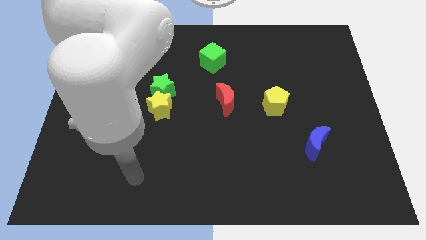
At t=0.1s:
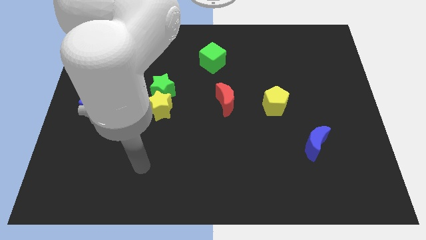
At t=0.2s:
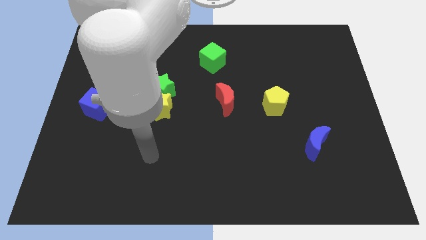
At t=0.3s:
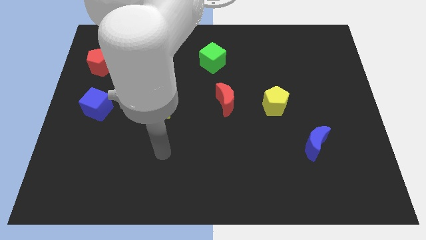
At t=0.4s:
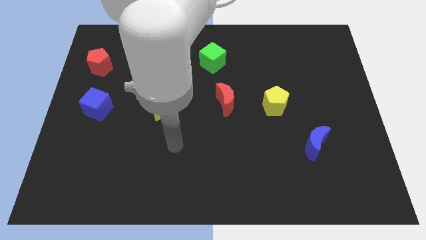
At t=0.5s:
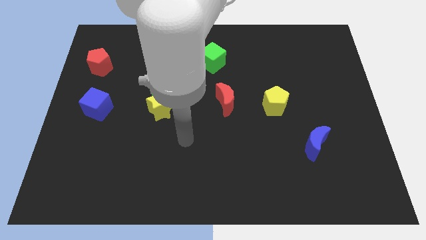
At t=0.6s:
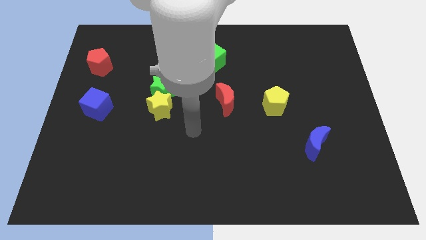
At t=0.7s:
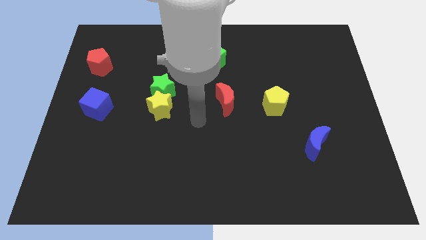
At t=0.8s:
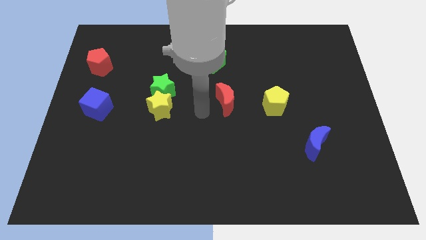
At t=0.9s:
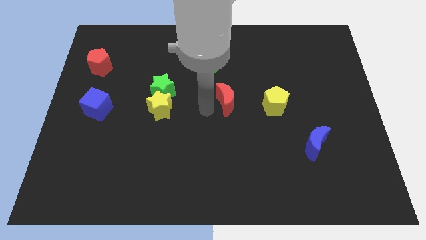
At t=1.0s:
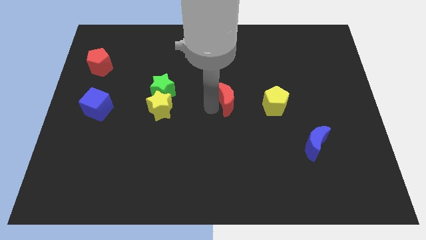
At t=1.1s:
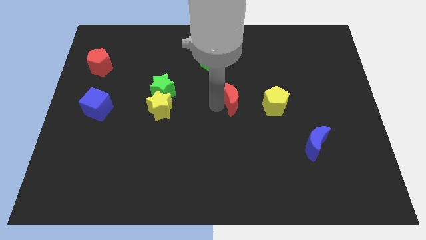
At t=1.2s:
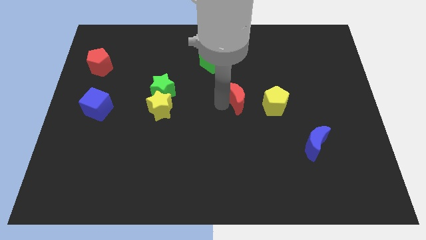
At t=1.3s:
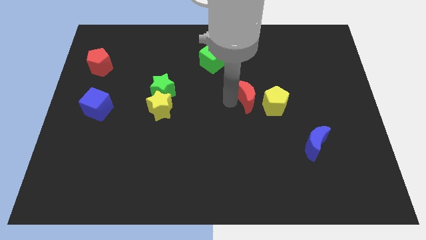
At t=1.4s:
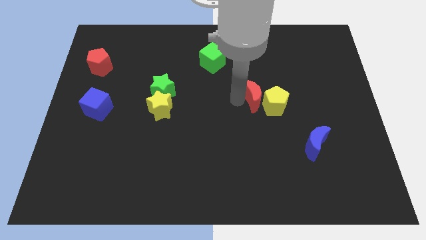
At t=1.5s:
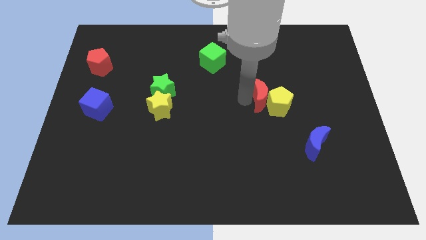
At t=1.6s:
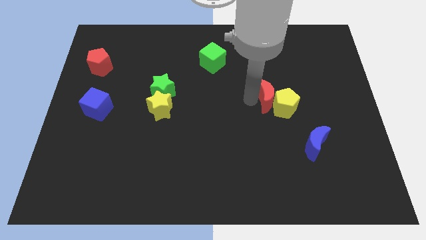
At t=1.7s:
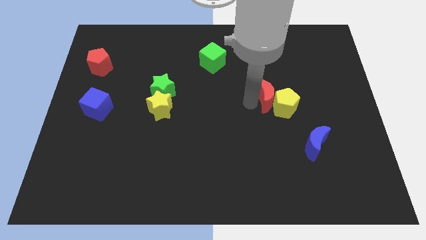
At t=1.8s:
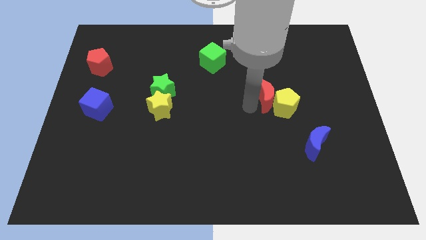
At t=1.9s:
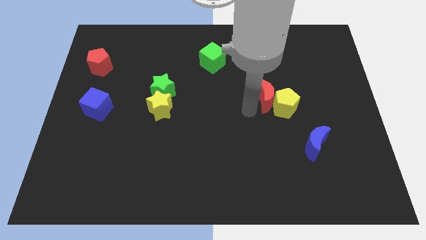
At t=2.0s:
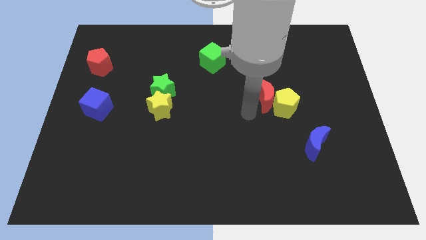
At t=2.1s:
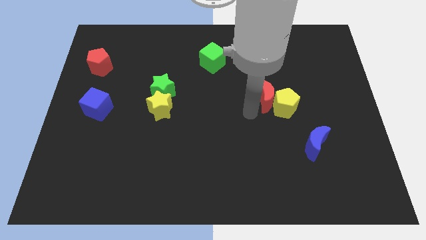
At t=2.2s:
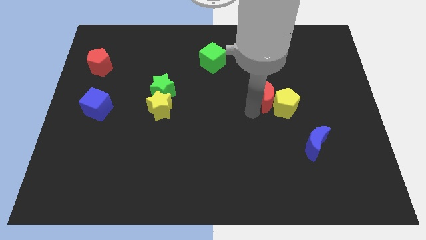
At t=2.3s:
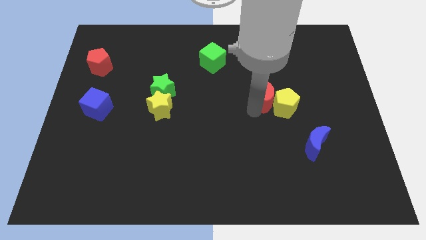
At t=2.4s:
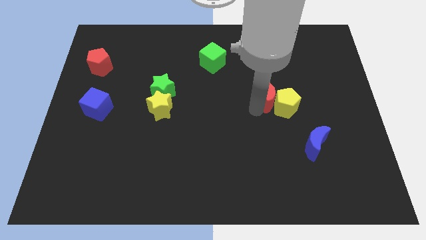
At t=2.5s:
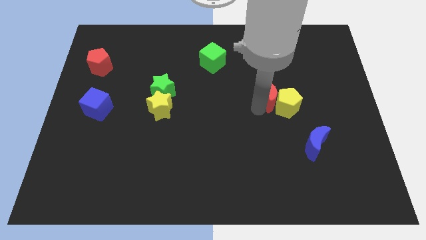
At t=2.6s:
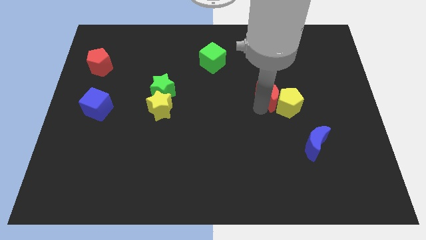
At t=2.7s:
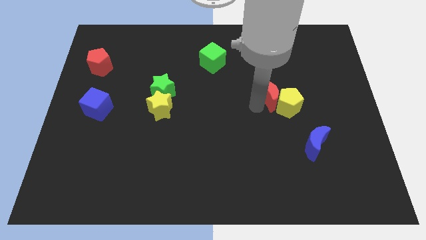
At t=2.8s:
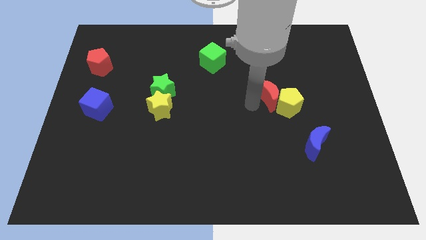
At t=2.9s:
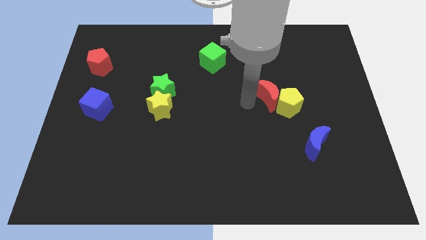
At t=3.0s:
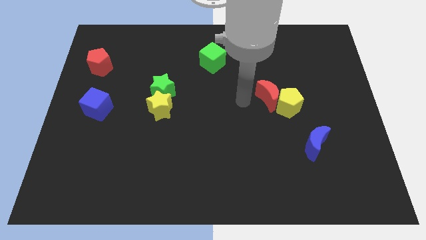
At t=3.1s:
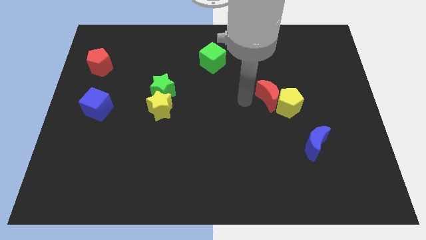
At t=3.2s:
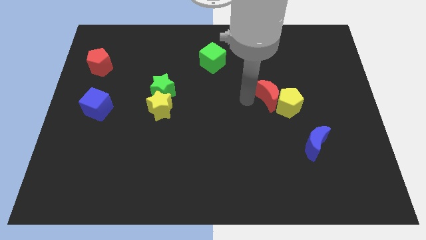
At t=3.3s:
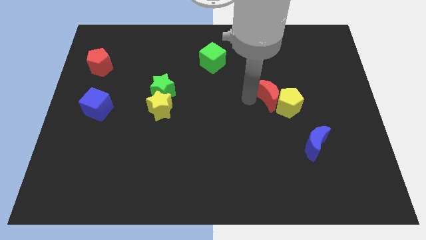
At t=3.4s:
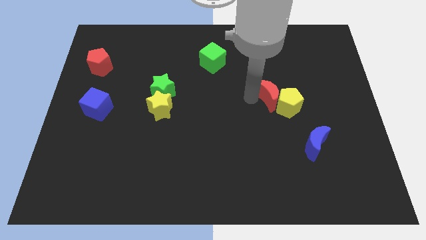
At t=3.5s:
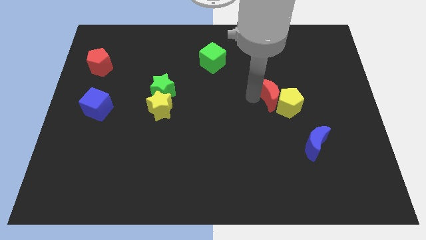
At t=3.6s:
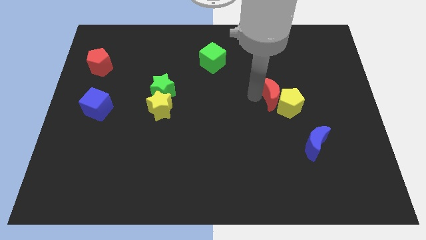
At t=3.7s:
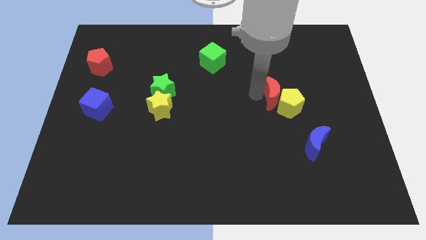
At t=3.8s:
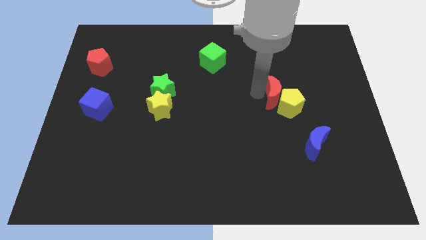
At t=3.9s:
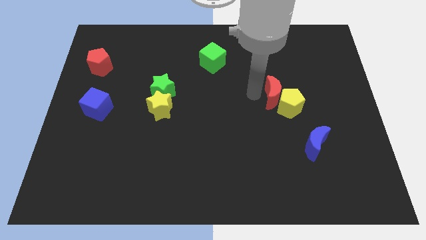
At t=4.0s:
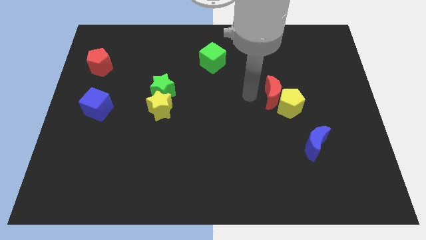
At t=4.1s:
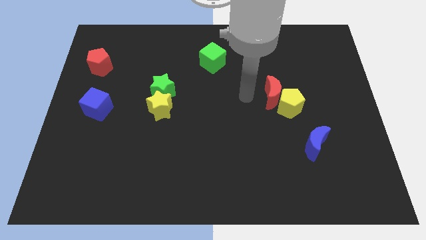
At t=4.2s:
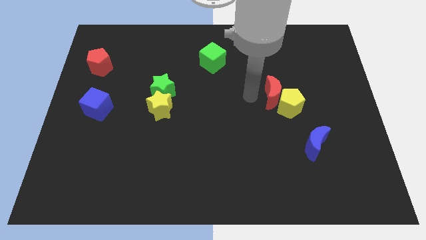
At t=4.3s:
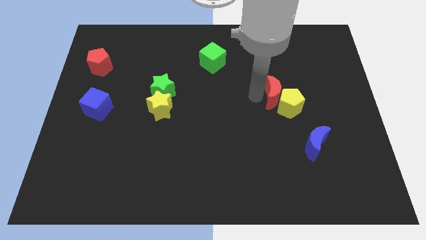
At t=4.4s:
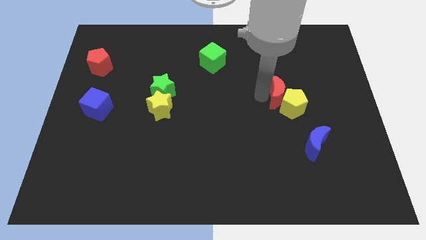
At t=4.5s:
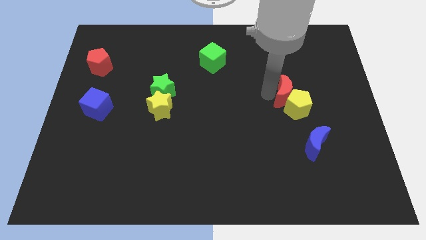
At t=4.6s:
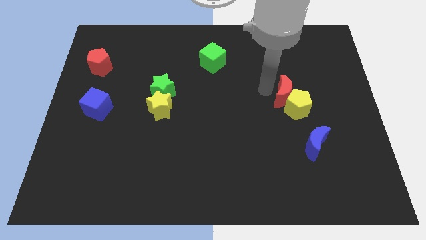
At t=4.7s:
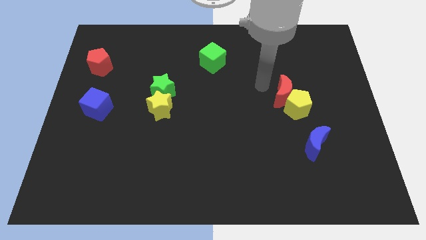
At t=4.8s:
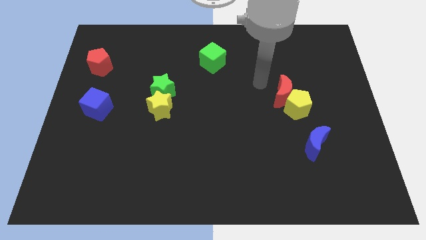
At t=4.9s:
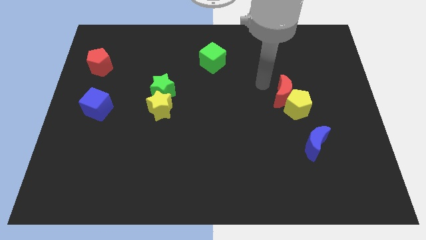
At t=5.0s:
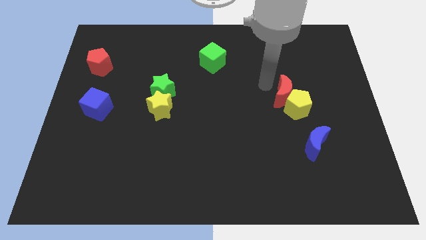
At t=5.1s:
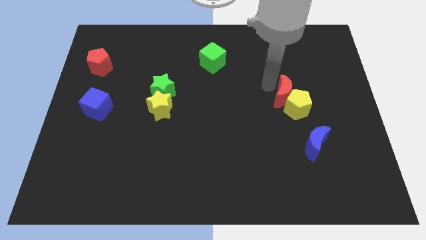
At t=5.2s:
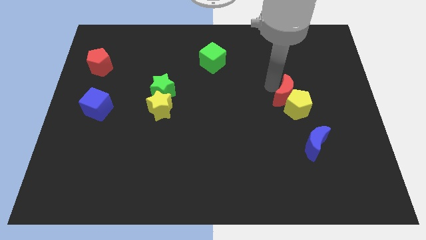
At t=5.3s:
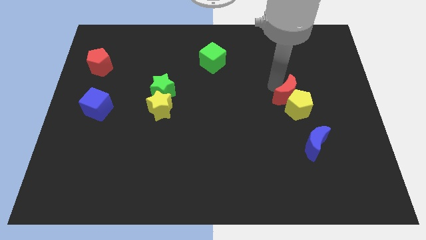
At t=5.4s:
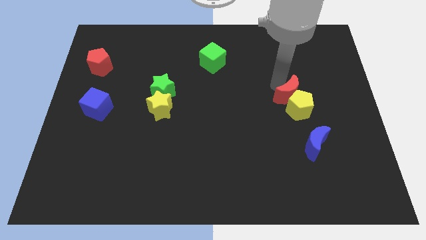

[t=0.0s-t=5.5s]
put the red moon above the blue moon

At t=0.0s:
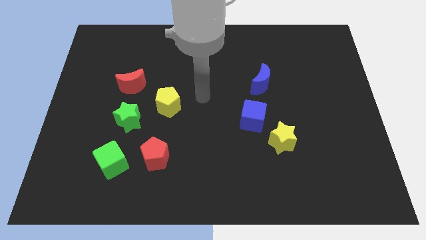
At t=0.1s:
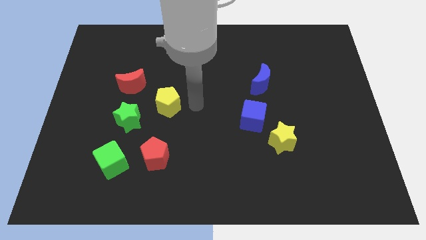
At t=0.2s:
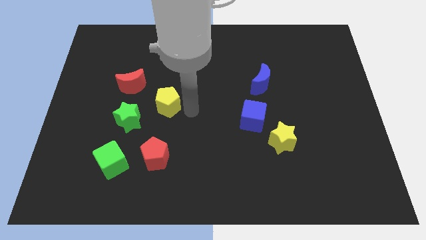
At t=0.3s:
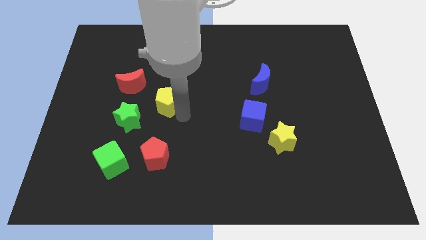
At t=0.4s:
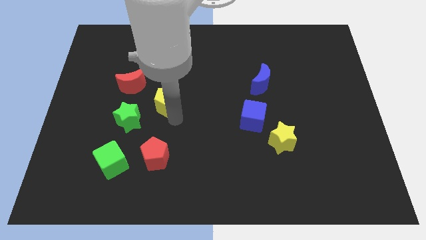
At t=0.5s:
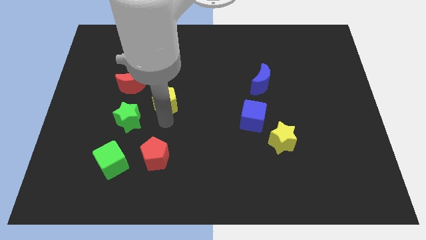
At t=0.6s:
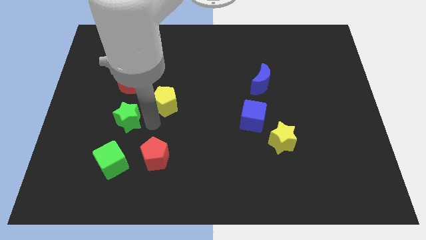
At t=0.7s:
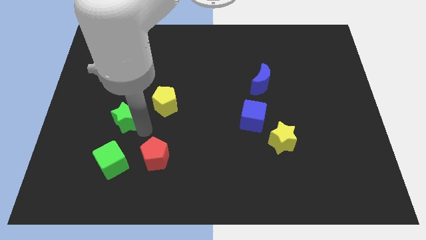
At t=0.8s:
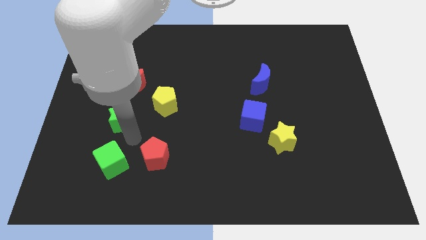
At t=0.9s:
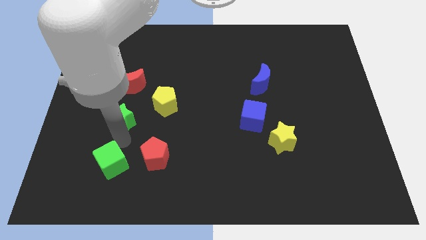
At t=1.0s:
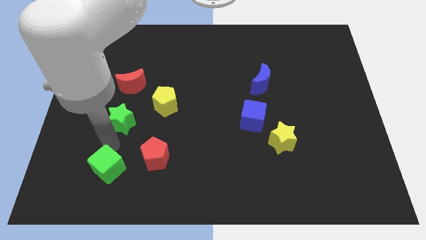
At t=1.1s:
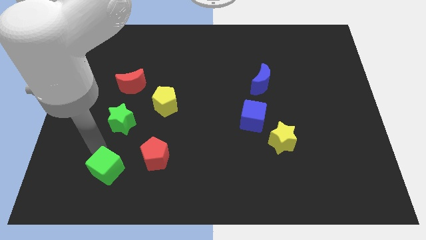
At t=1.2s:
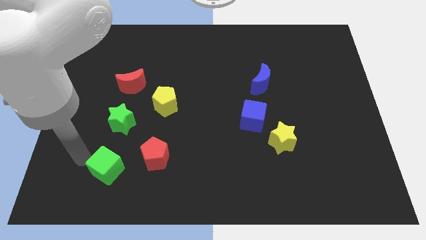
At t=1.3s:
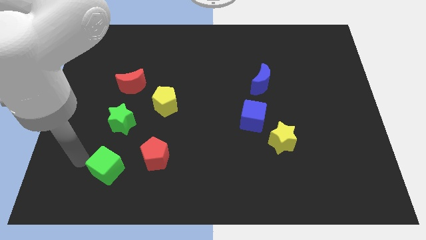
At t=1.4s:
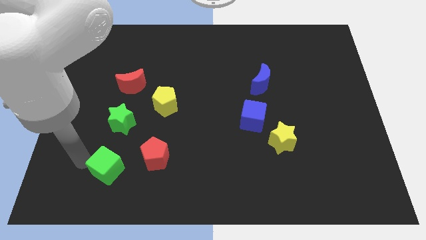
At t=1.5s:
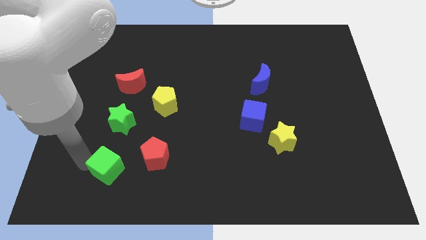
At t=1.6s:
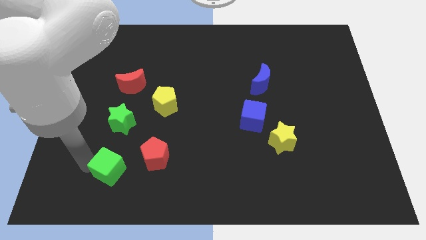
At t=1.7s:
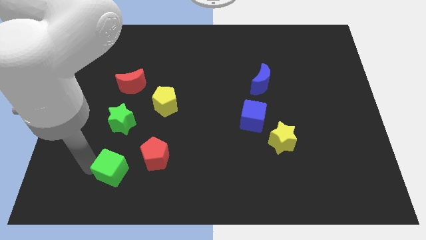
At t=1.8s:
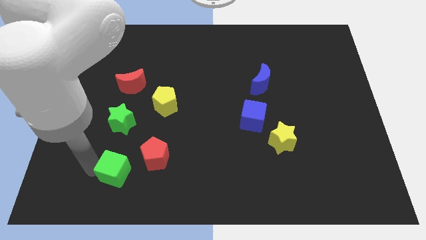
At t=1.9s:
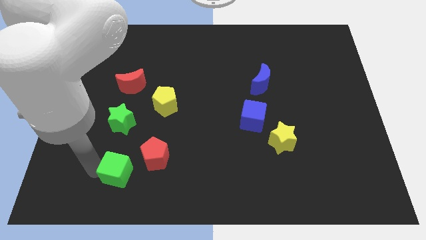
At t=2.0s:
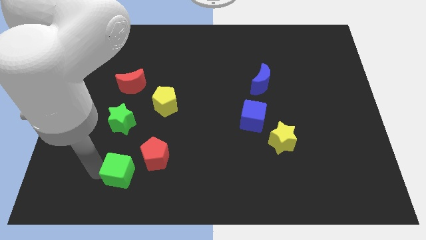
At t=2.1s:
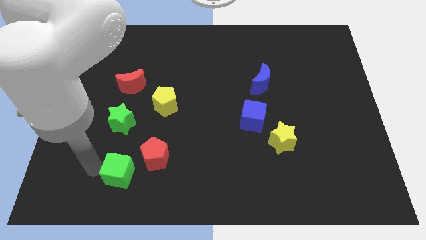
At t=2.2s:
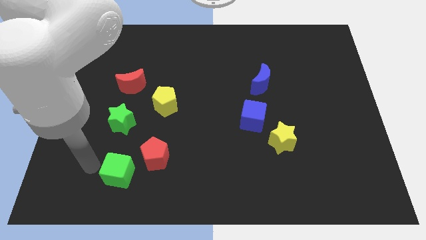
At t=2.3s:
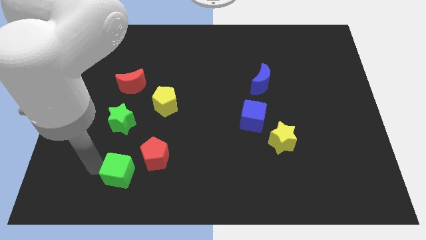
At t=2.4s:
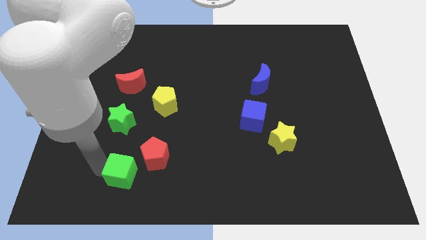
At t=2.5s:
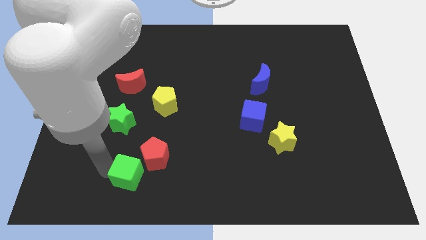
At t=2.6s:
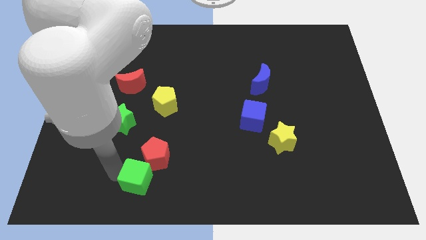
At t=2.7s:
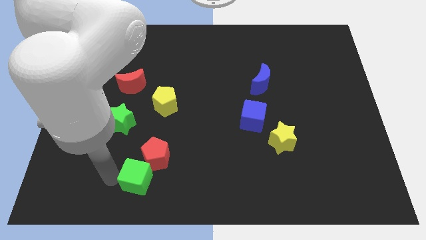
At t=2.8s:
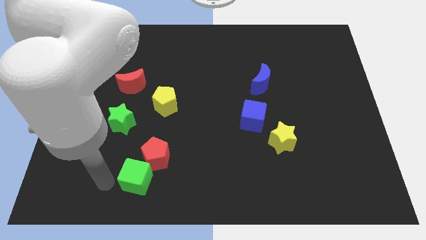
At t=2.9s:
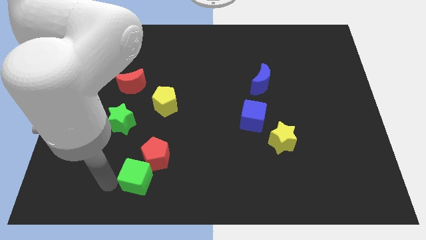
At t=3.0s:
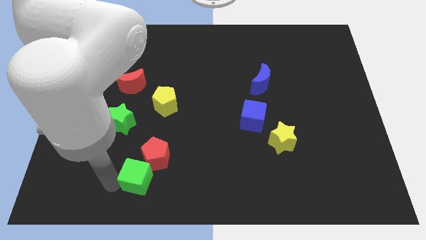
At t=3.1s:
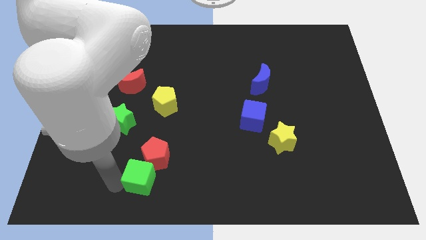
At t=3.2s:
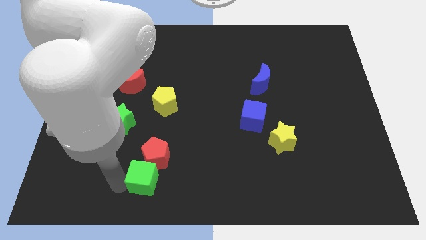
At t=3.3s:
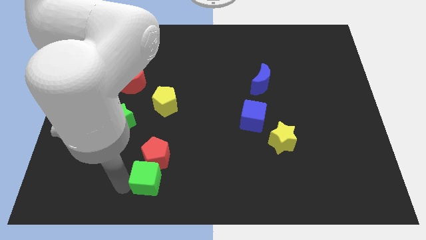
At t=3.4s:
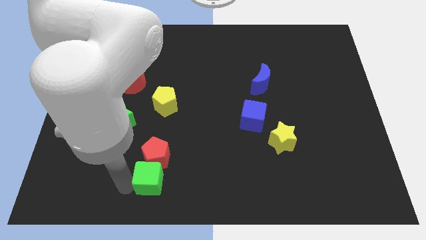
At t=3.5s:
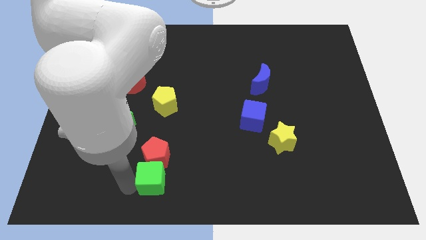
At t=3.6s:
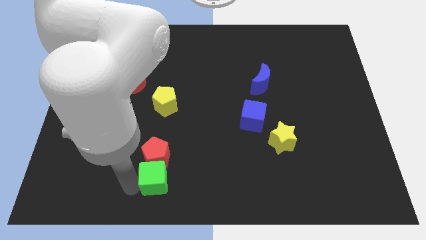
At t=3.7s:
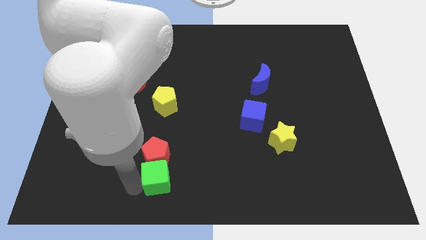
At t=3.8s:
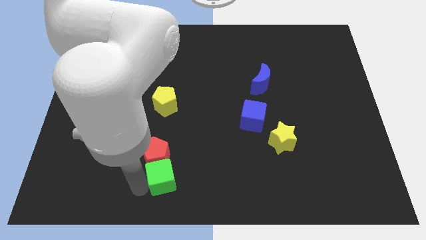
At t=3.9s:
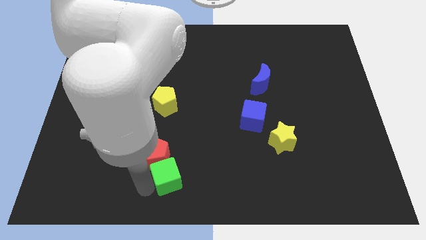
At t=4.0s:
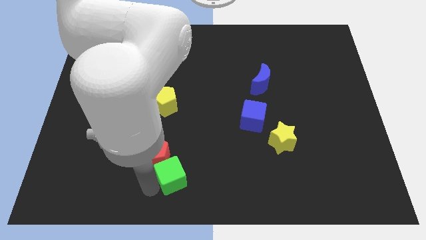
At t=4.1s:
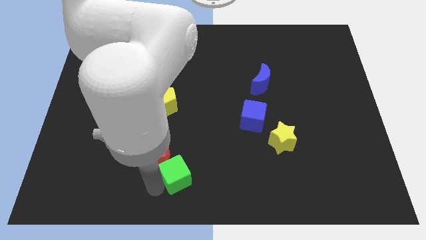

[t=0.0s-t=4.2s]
move the green cube to the right of the red pentagon
